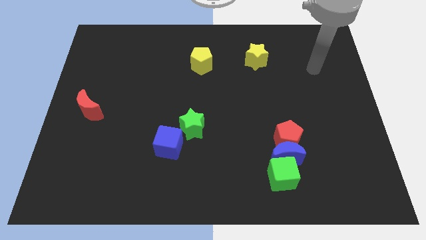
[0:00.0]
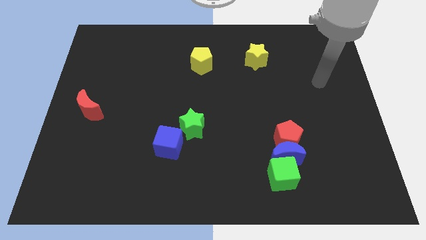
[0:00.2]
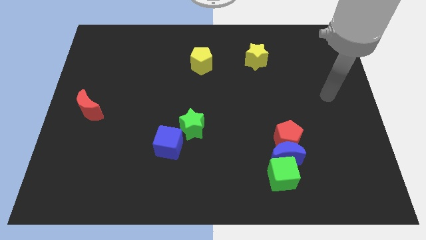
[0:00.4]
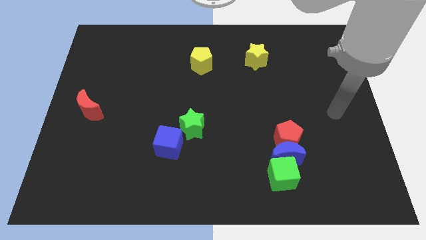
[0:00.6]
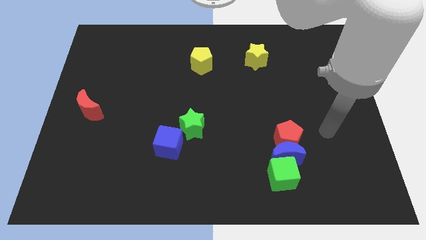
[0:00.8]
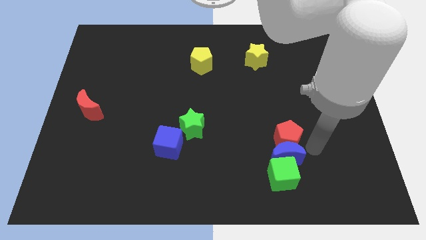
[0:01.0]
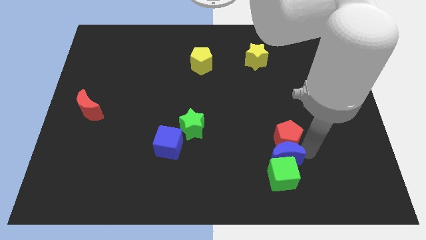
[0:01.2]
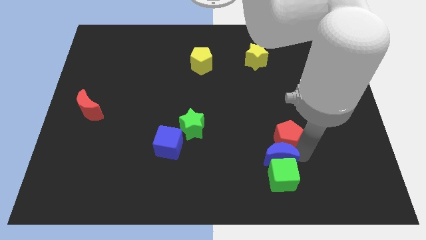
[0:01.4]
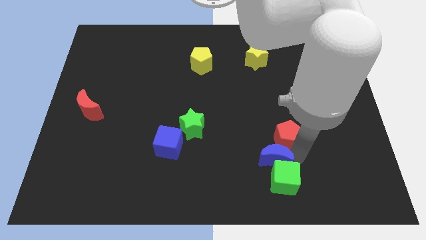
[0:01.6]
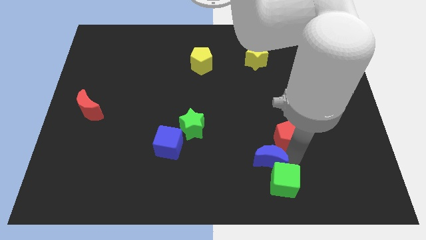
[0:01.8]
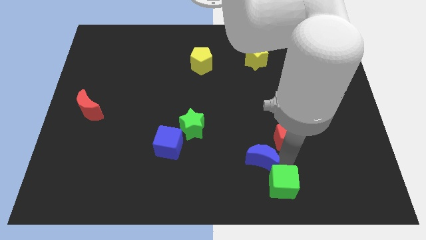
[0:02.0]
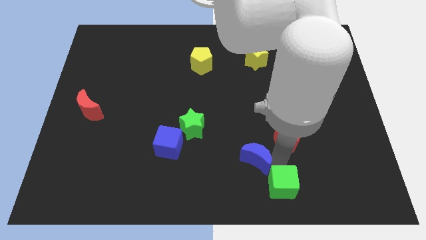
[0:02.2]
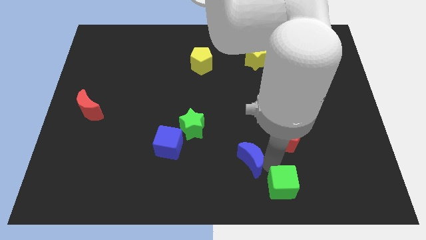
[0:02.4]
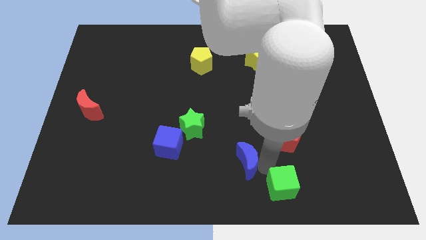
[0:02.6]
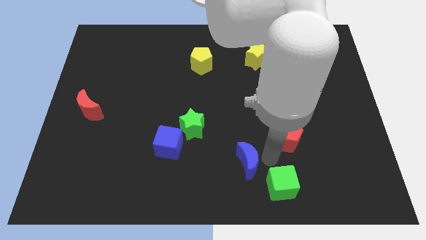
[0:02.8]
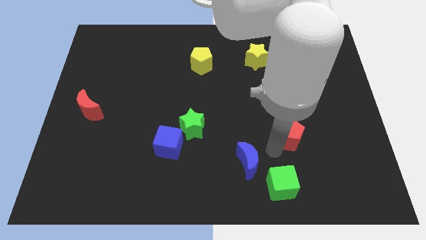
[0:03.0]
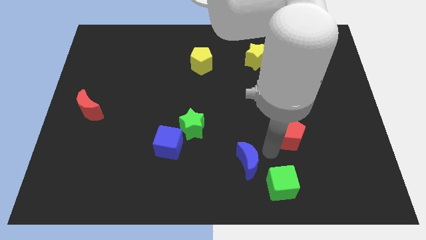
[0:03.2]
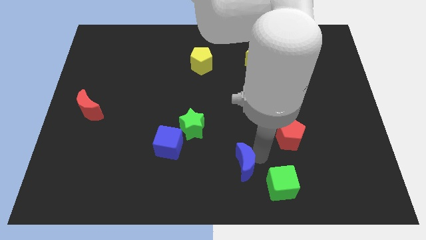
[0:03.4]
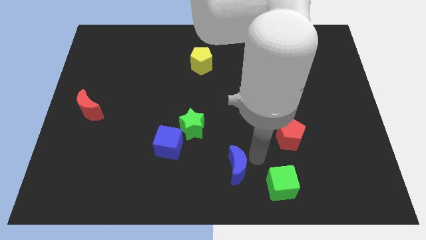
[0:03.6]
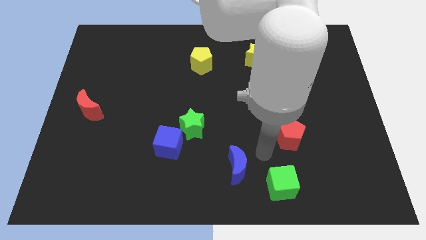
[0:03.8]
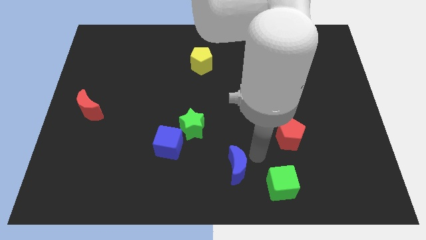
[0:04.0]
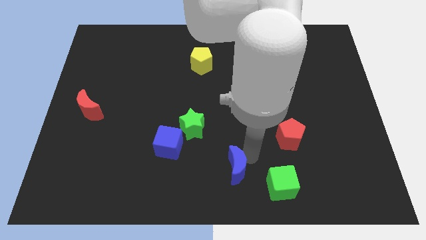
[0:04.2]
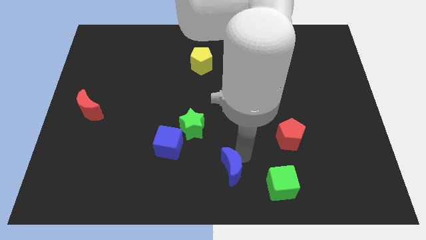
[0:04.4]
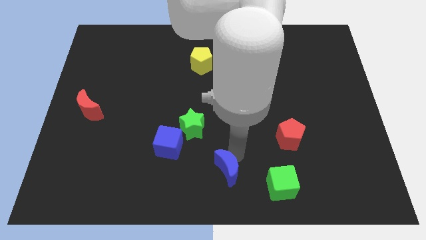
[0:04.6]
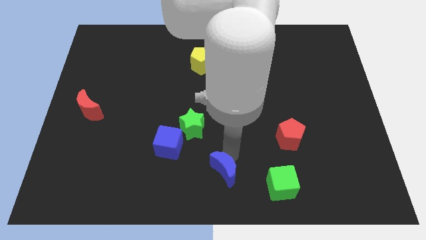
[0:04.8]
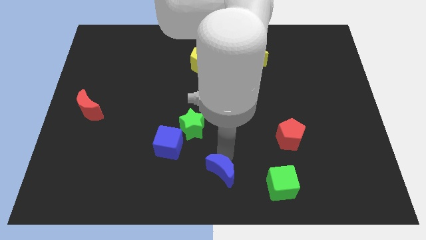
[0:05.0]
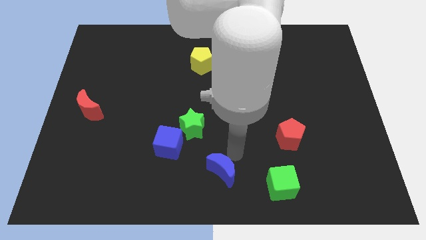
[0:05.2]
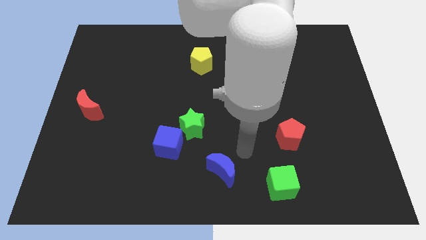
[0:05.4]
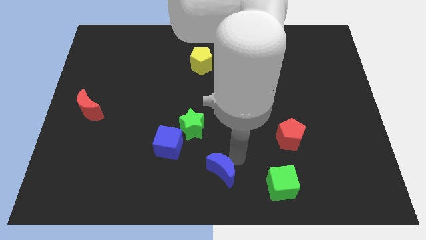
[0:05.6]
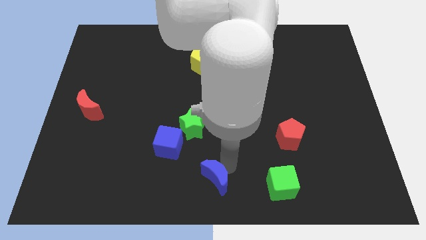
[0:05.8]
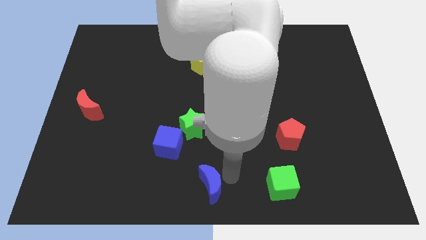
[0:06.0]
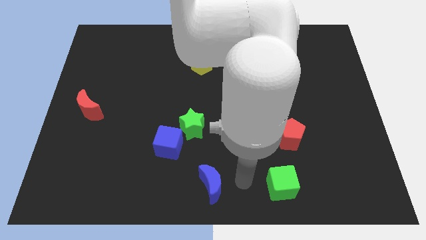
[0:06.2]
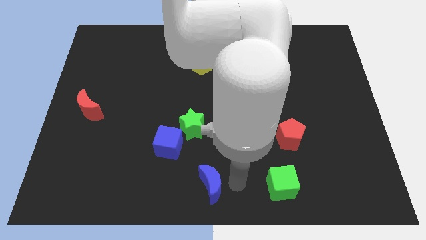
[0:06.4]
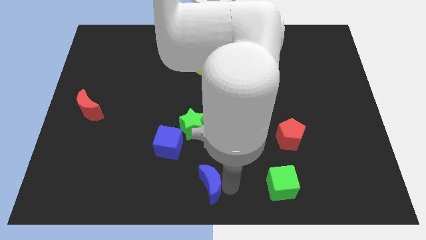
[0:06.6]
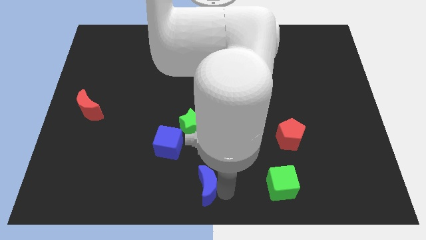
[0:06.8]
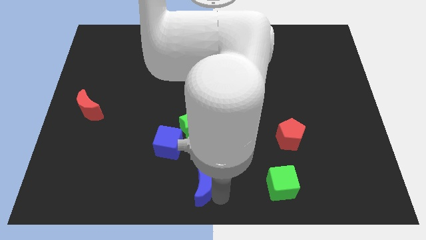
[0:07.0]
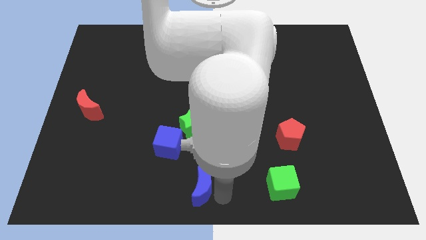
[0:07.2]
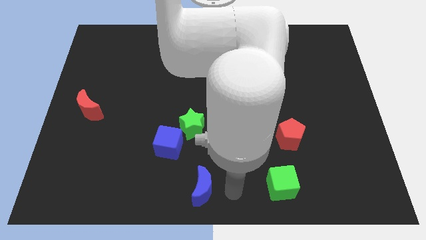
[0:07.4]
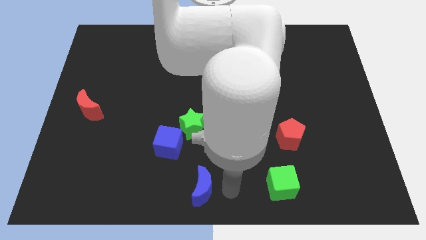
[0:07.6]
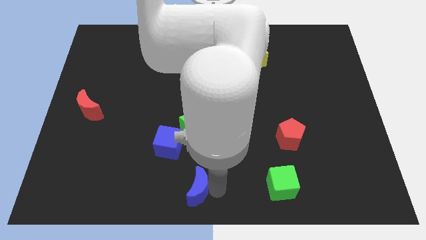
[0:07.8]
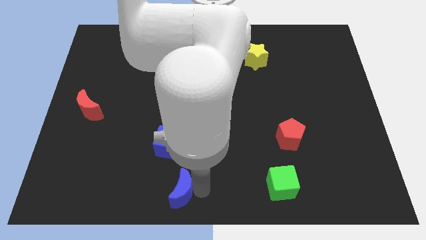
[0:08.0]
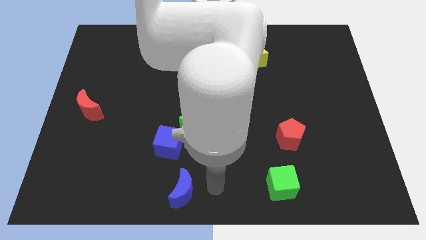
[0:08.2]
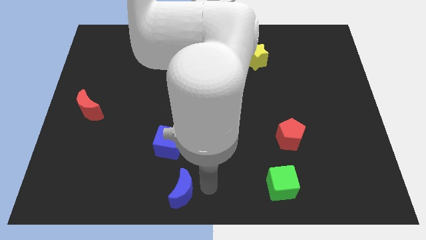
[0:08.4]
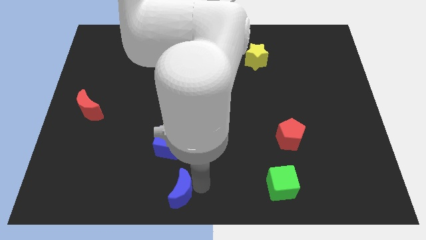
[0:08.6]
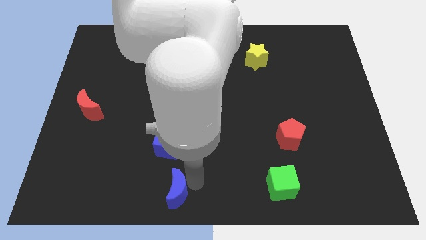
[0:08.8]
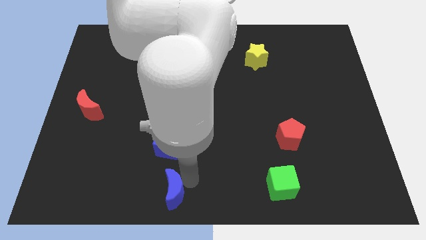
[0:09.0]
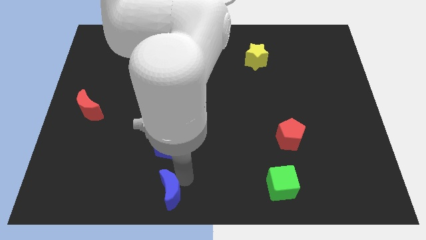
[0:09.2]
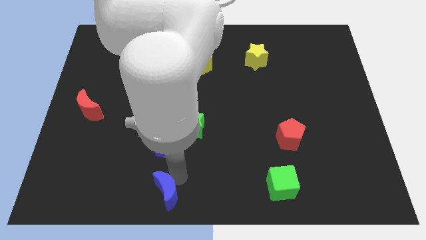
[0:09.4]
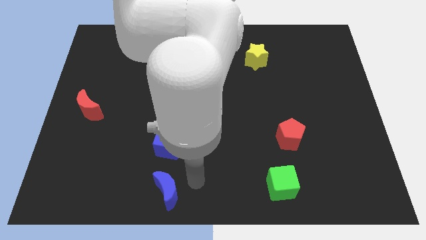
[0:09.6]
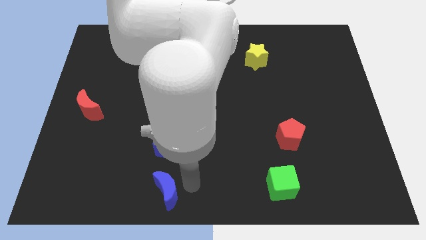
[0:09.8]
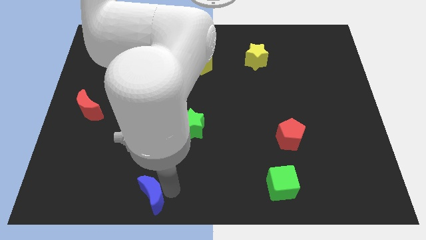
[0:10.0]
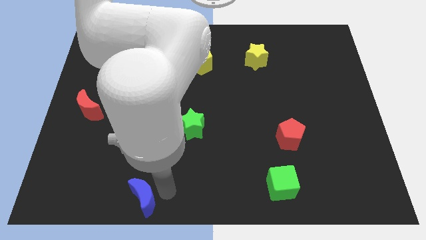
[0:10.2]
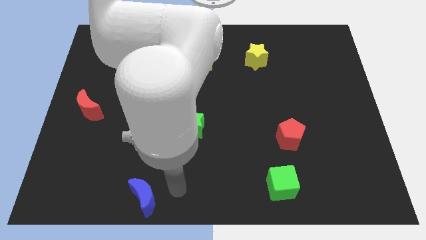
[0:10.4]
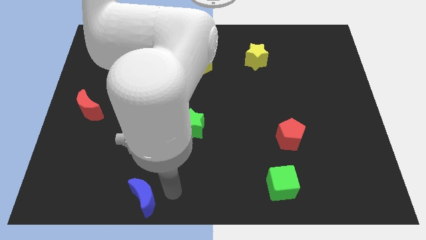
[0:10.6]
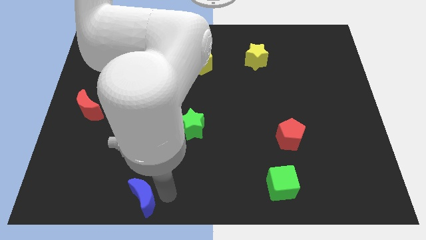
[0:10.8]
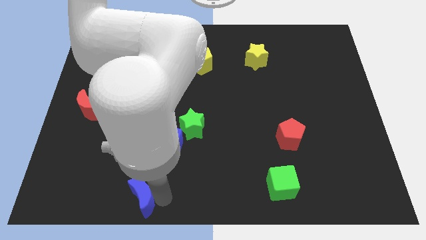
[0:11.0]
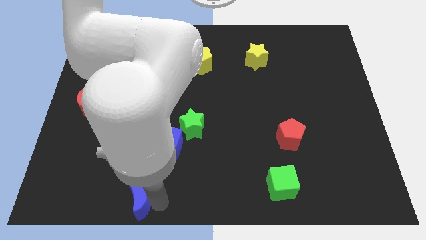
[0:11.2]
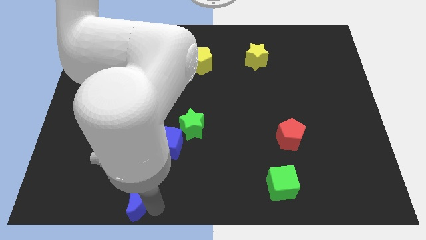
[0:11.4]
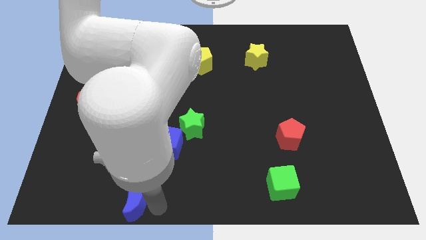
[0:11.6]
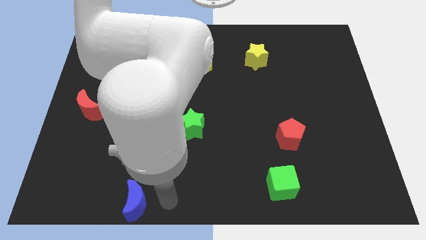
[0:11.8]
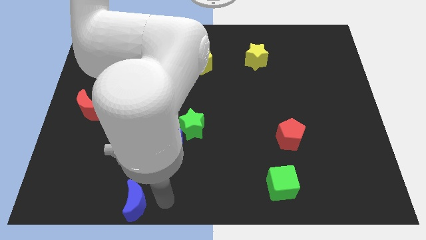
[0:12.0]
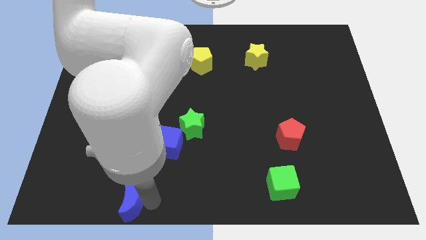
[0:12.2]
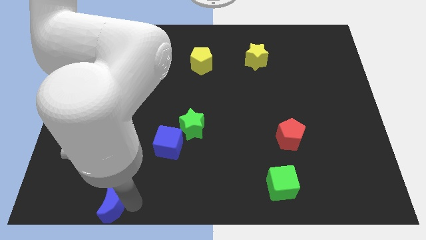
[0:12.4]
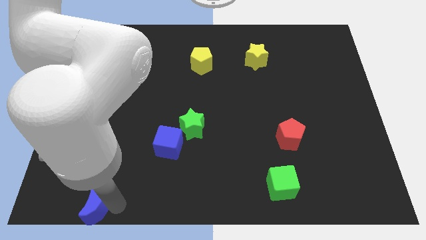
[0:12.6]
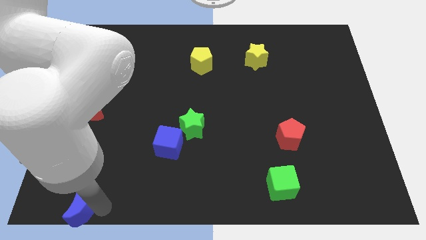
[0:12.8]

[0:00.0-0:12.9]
slide the blue moon to the bottom left
